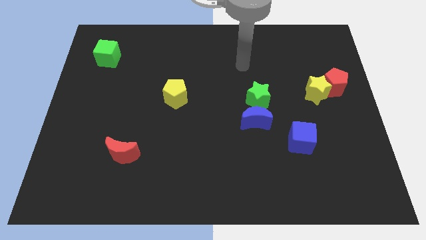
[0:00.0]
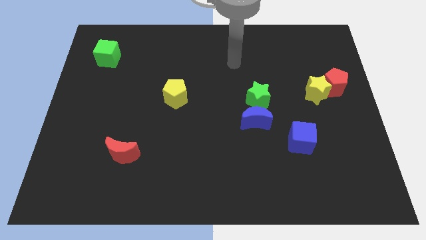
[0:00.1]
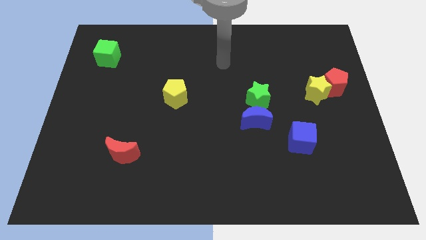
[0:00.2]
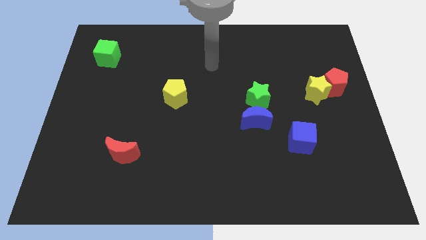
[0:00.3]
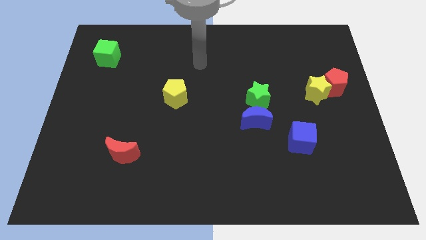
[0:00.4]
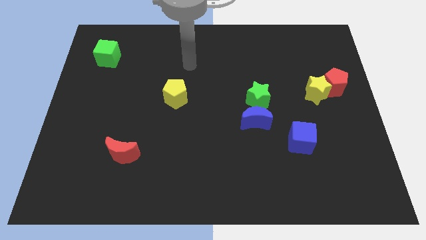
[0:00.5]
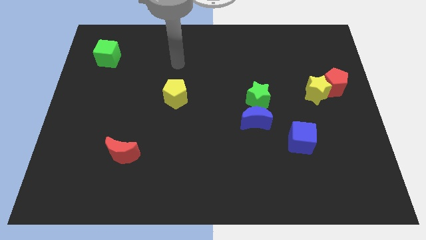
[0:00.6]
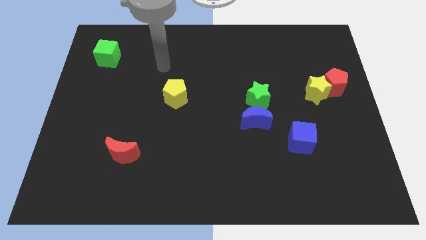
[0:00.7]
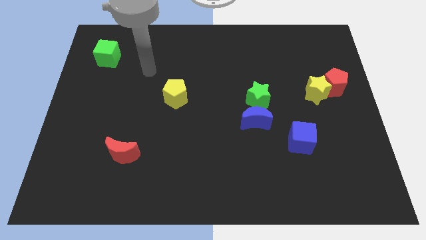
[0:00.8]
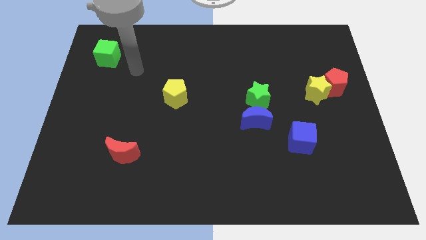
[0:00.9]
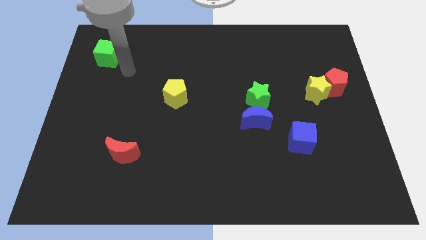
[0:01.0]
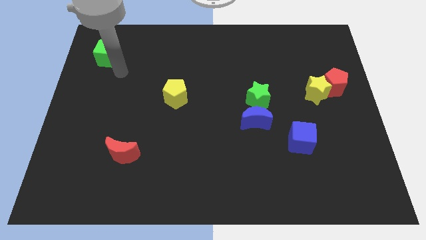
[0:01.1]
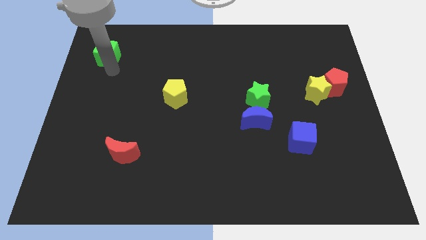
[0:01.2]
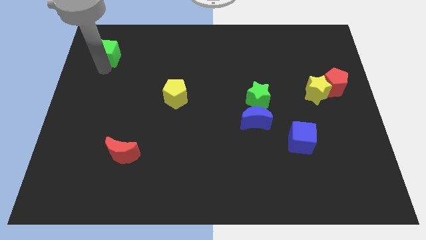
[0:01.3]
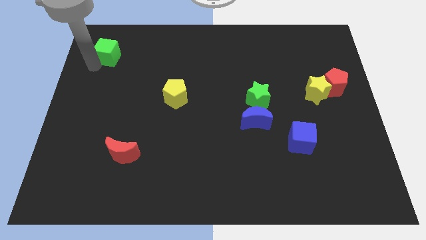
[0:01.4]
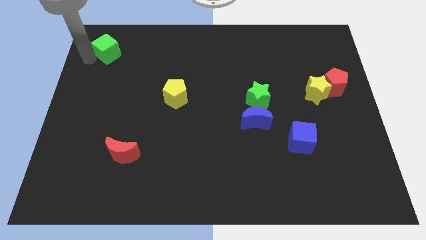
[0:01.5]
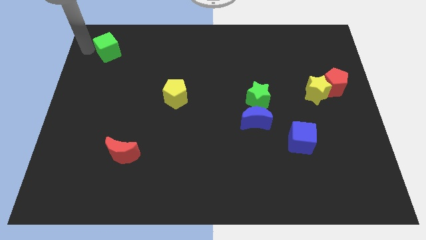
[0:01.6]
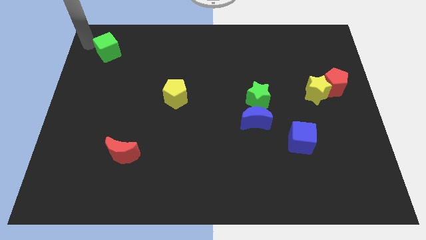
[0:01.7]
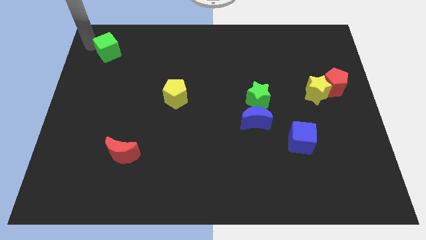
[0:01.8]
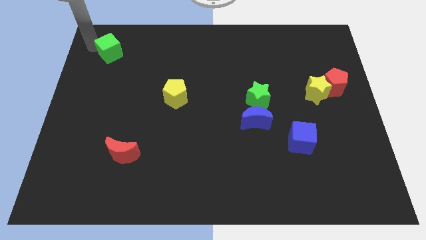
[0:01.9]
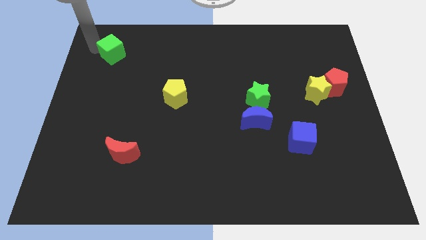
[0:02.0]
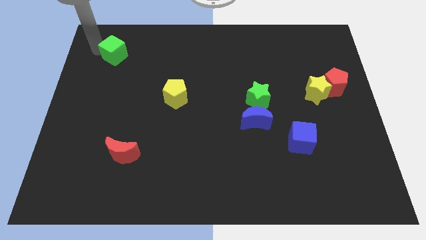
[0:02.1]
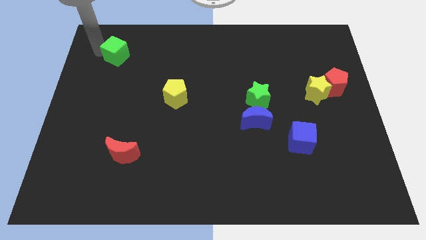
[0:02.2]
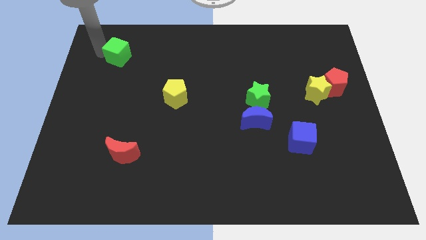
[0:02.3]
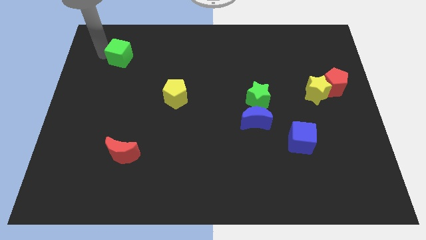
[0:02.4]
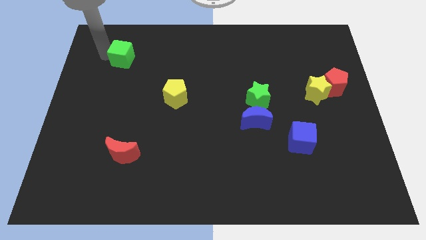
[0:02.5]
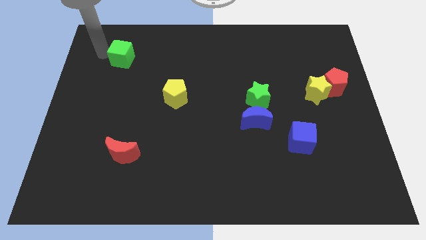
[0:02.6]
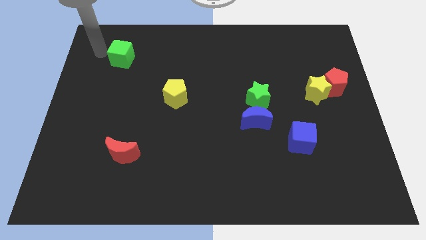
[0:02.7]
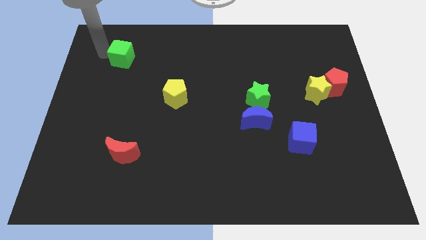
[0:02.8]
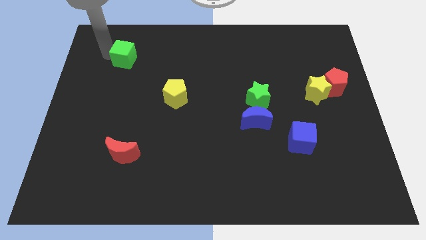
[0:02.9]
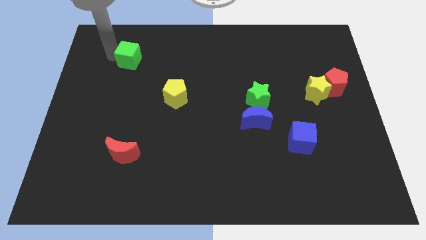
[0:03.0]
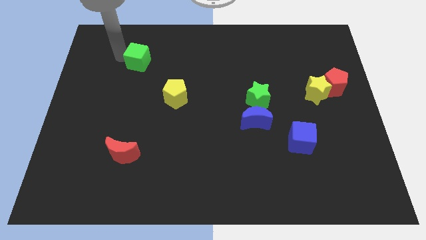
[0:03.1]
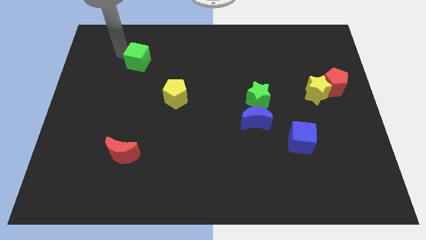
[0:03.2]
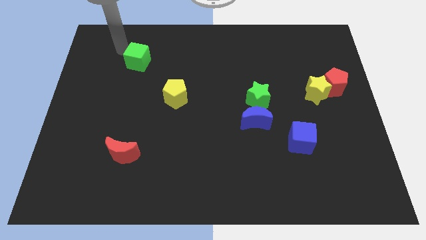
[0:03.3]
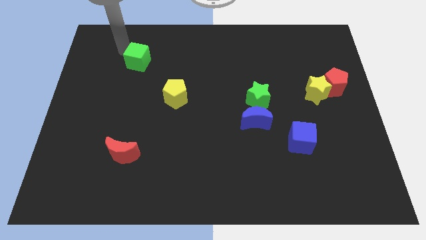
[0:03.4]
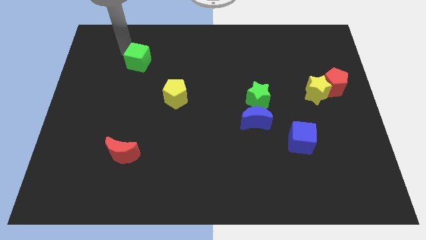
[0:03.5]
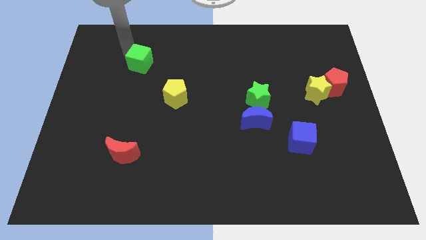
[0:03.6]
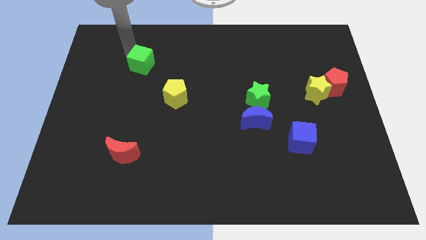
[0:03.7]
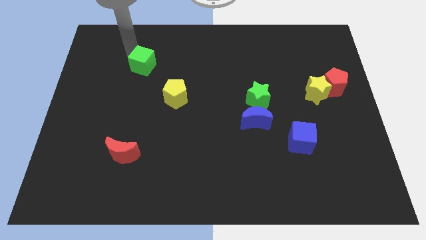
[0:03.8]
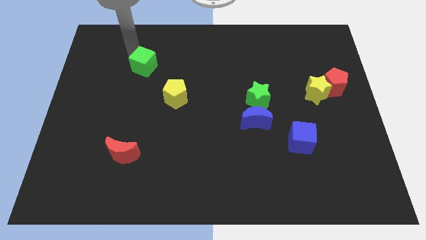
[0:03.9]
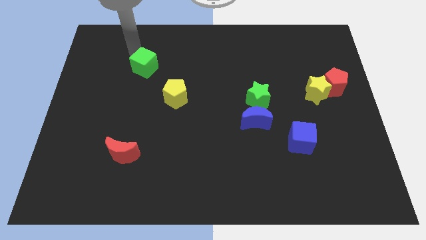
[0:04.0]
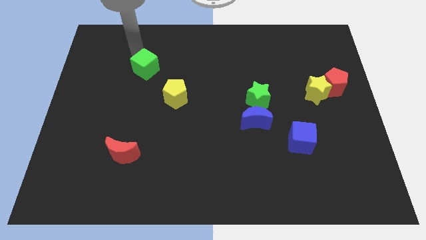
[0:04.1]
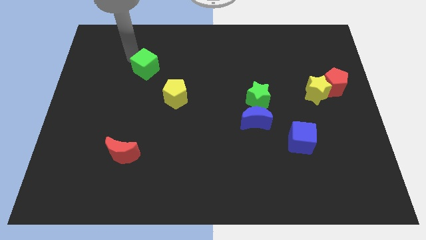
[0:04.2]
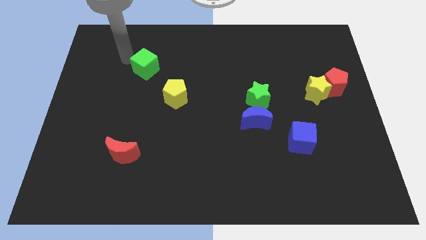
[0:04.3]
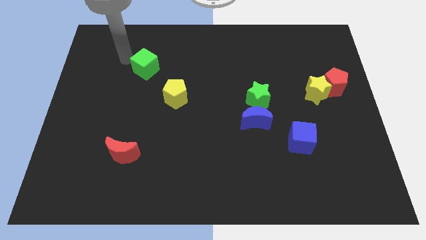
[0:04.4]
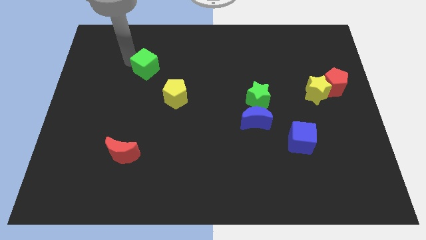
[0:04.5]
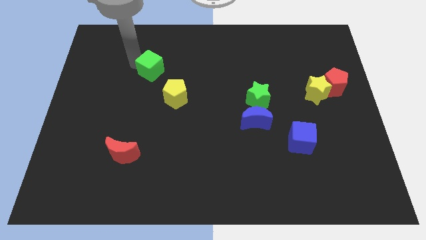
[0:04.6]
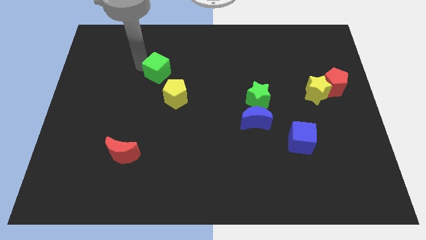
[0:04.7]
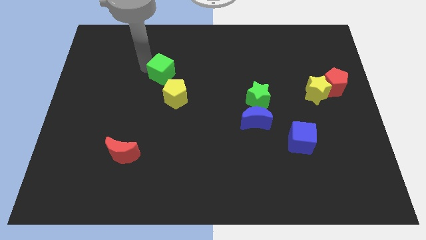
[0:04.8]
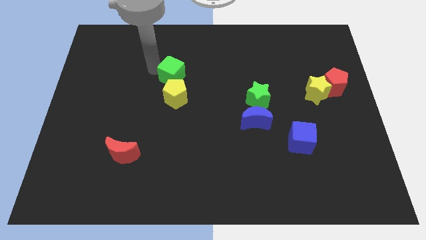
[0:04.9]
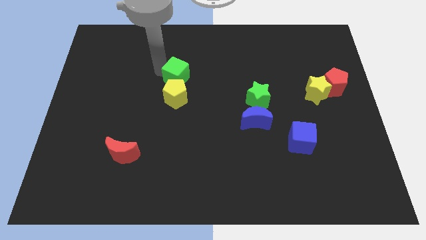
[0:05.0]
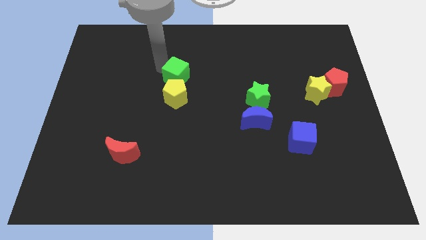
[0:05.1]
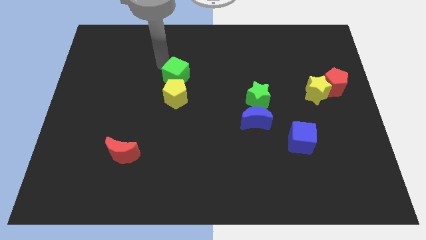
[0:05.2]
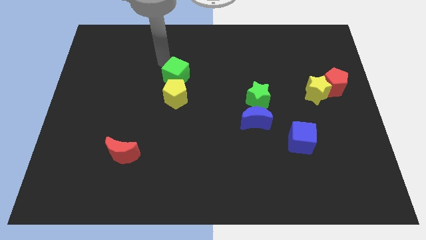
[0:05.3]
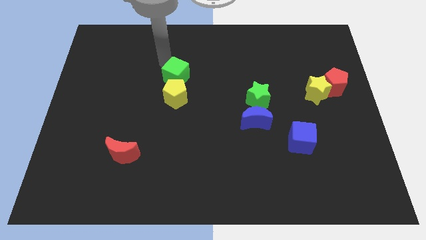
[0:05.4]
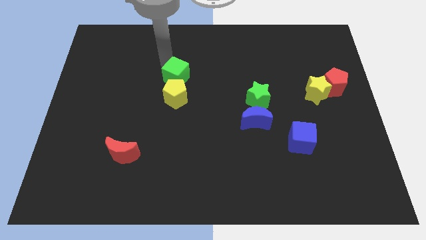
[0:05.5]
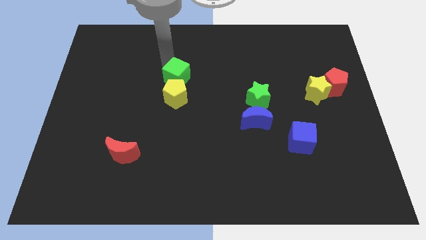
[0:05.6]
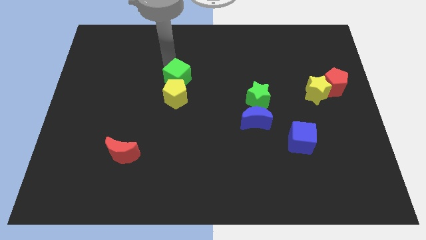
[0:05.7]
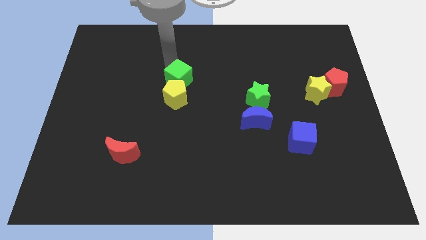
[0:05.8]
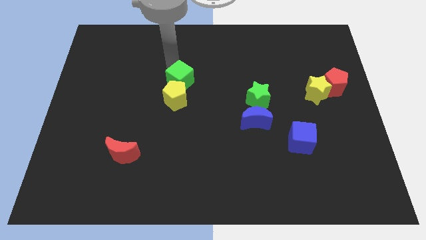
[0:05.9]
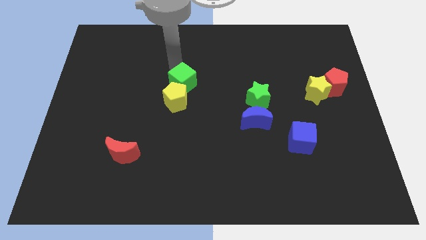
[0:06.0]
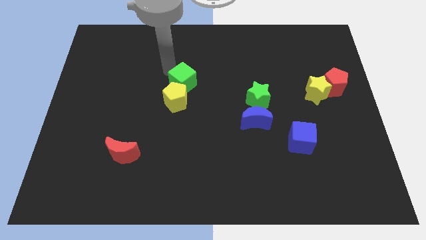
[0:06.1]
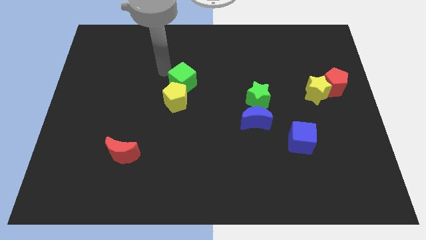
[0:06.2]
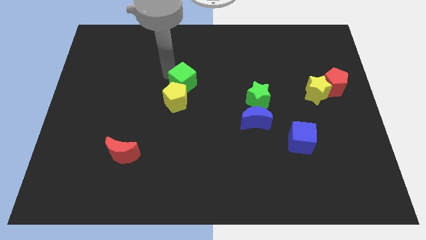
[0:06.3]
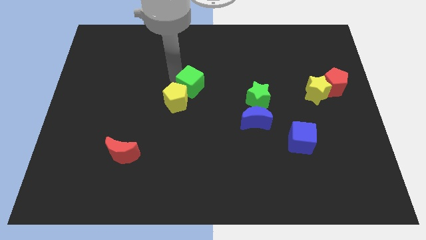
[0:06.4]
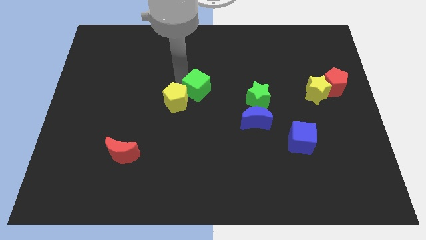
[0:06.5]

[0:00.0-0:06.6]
push the green cube to the left of the green star

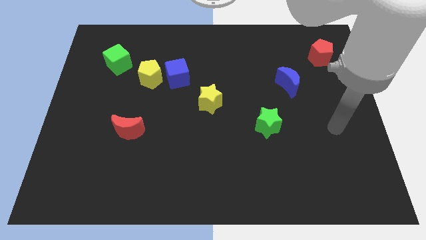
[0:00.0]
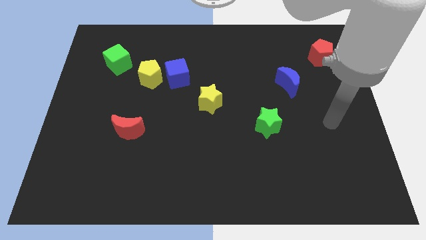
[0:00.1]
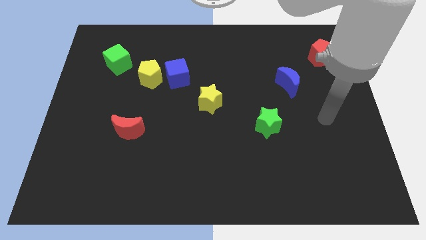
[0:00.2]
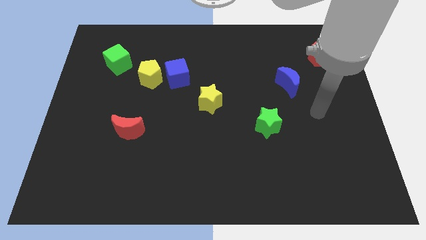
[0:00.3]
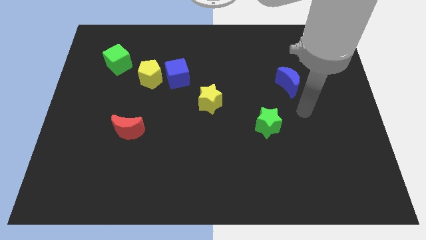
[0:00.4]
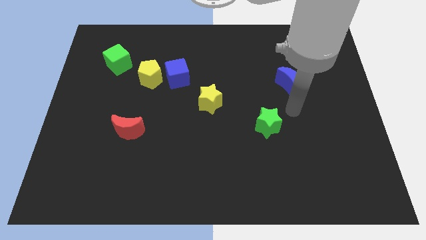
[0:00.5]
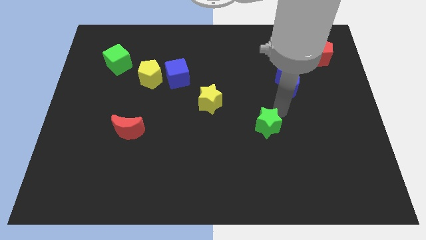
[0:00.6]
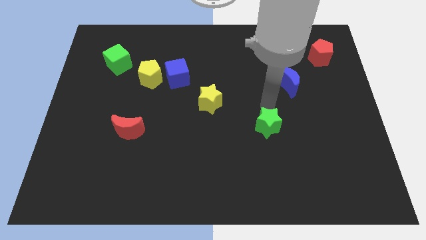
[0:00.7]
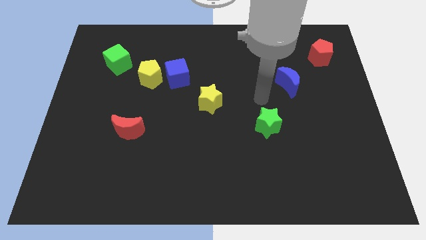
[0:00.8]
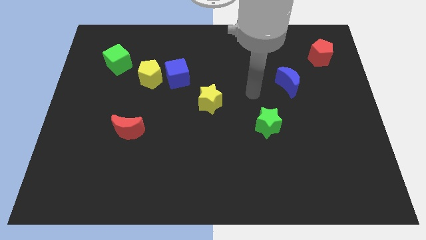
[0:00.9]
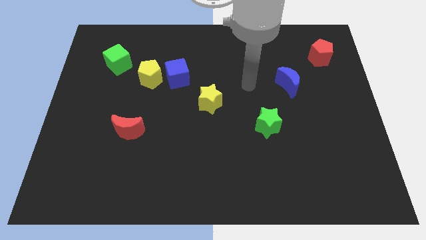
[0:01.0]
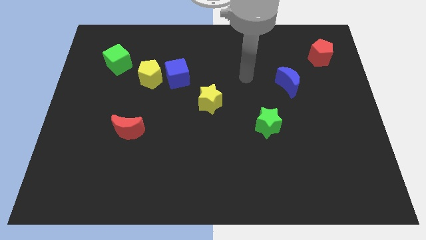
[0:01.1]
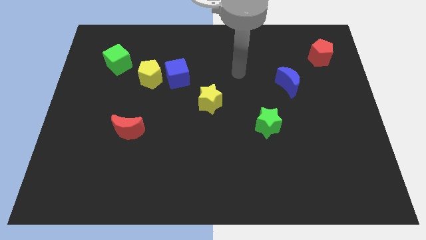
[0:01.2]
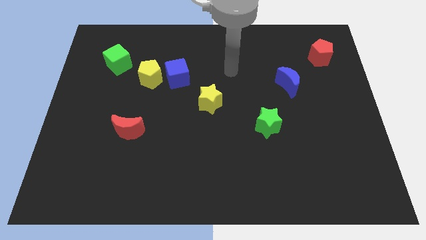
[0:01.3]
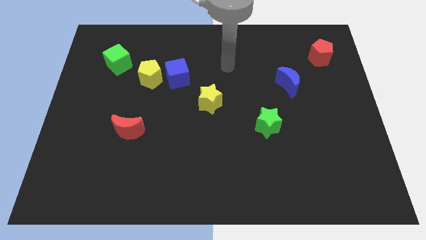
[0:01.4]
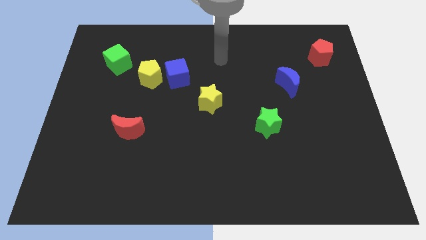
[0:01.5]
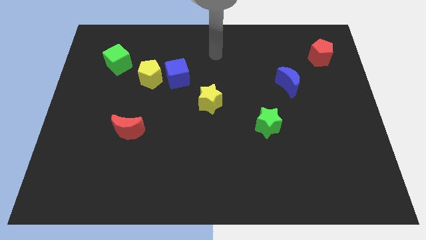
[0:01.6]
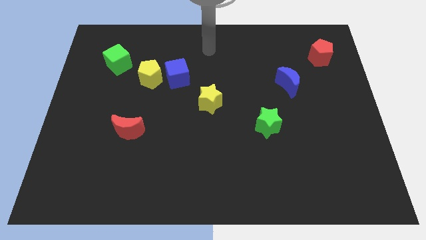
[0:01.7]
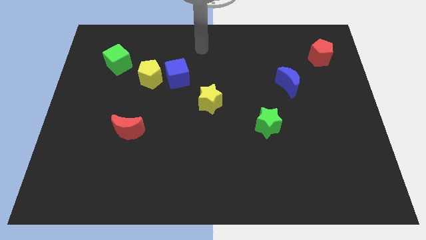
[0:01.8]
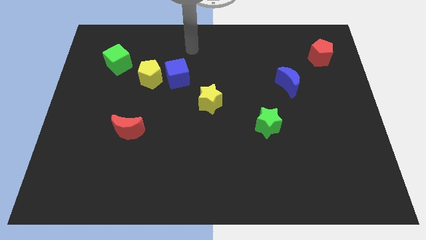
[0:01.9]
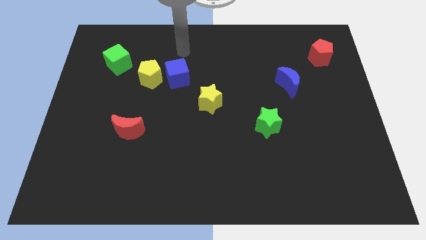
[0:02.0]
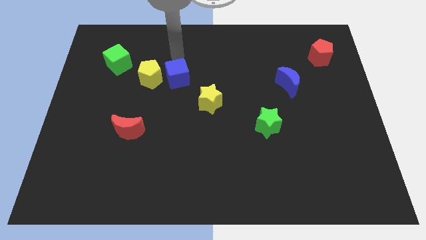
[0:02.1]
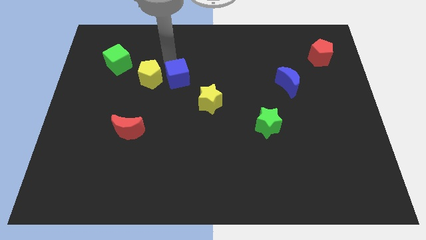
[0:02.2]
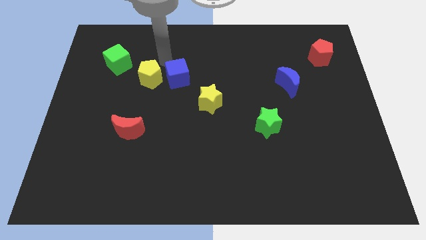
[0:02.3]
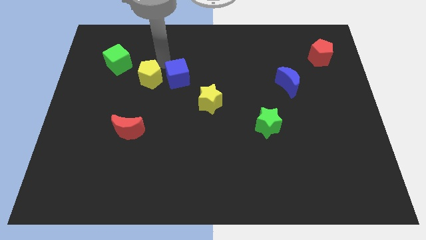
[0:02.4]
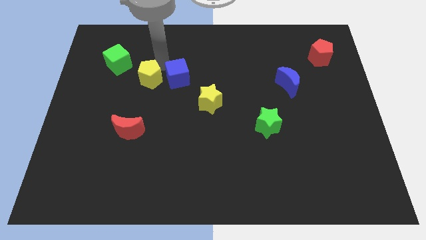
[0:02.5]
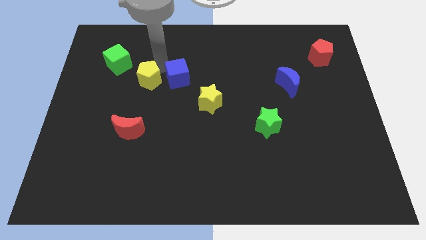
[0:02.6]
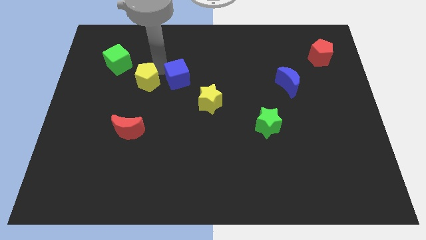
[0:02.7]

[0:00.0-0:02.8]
move the yellow pentagon to the top of the red moon
